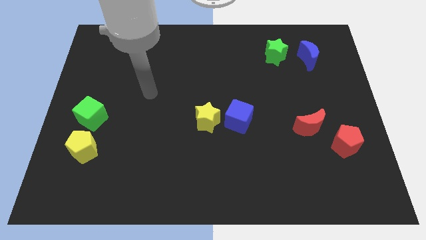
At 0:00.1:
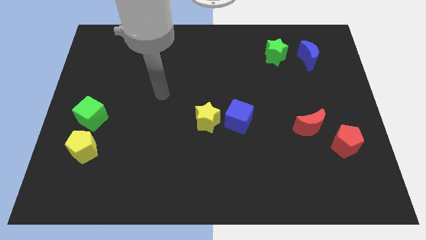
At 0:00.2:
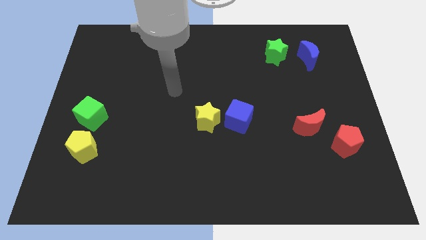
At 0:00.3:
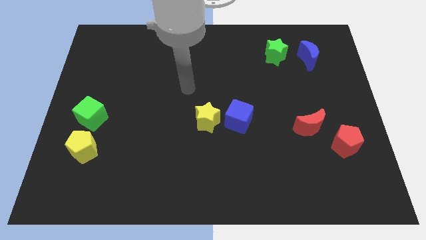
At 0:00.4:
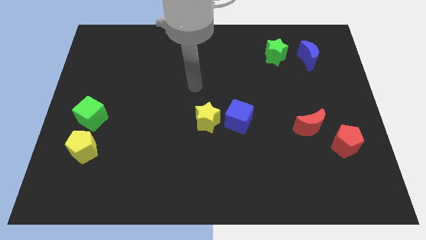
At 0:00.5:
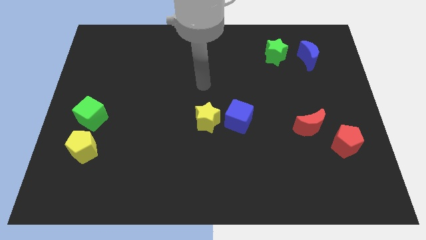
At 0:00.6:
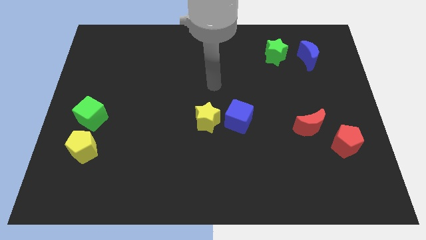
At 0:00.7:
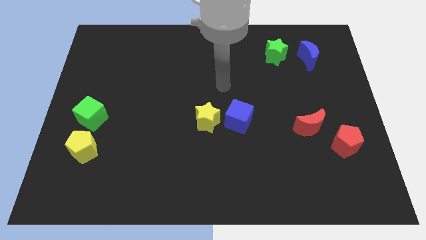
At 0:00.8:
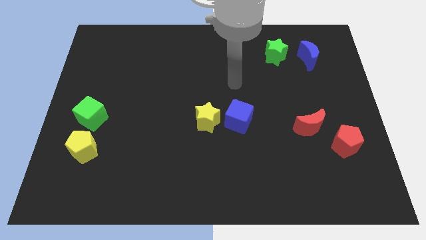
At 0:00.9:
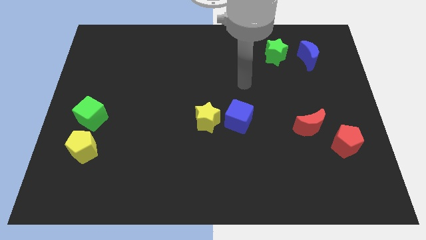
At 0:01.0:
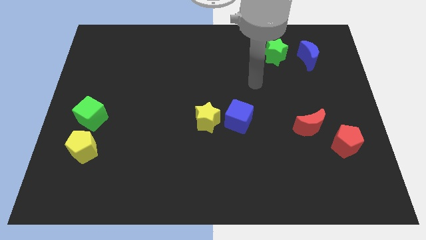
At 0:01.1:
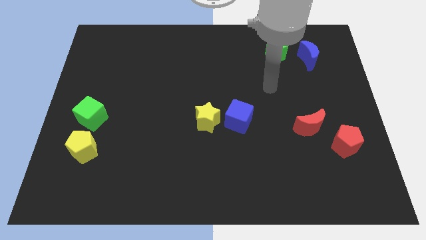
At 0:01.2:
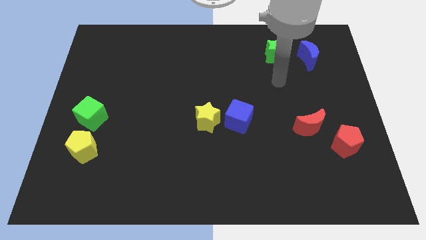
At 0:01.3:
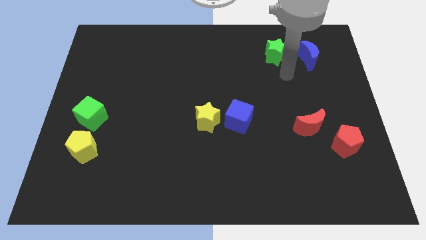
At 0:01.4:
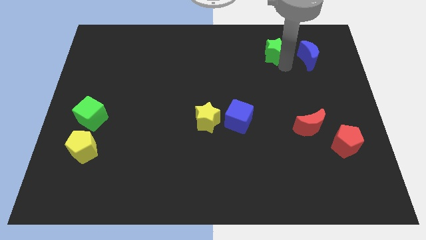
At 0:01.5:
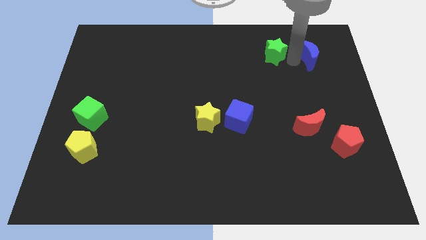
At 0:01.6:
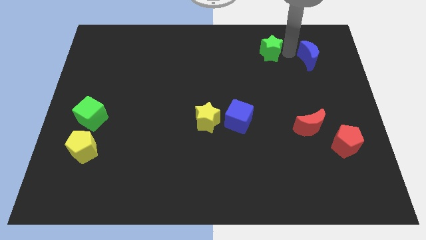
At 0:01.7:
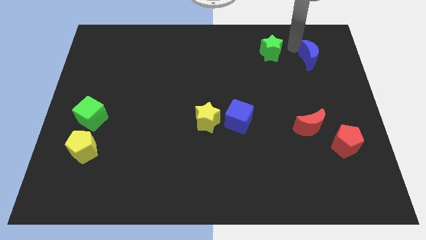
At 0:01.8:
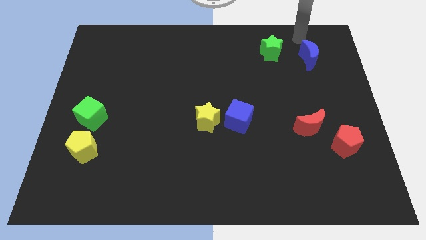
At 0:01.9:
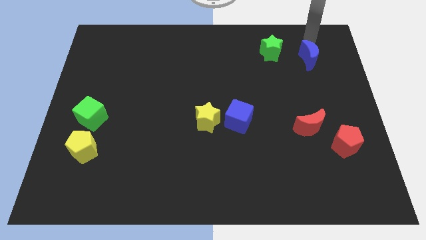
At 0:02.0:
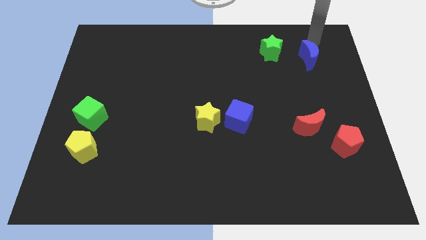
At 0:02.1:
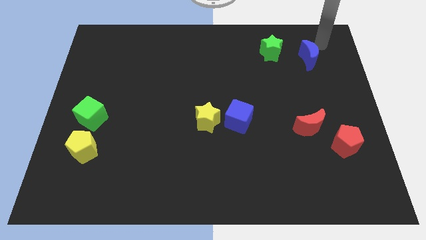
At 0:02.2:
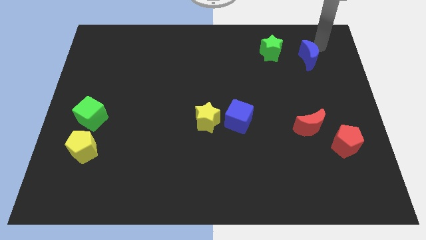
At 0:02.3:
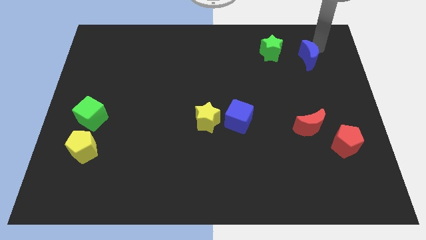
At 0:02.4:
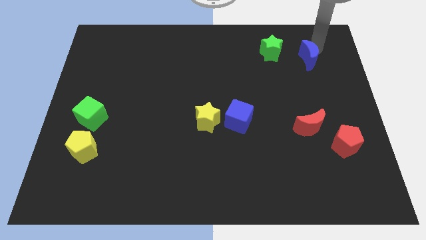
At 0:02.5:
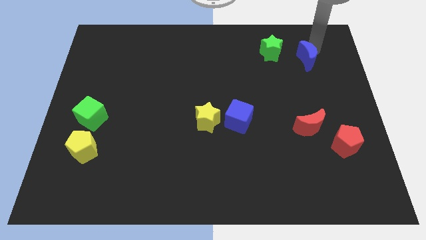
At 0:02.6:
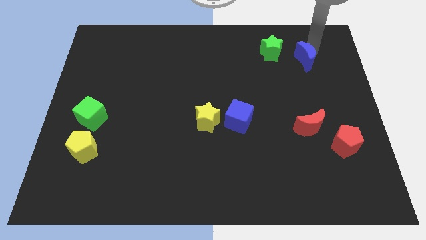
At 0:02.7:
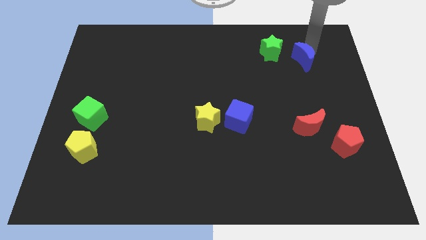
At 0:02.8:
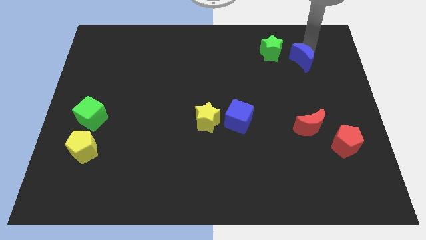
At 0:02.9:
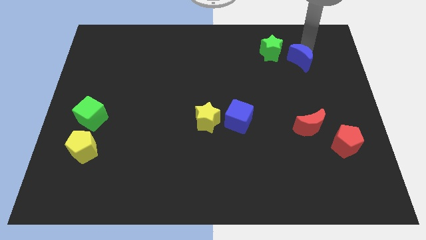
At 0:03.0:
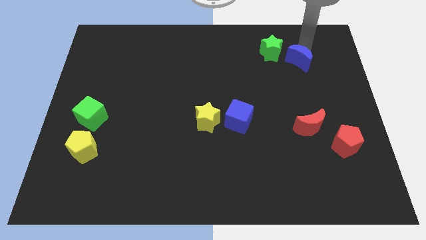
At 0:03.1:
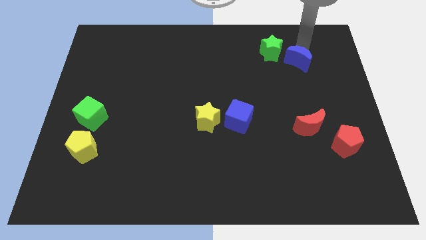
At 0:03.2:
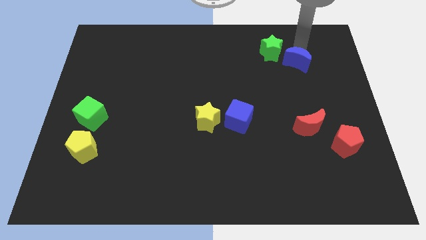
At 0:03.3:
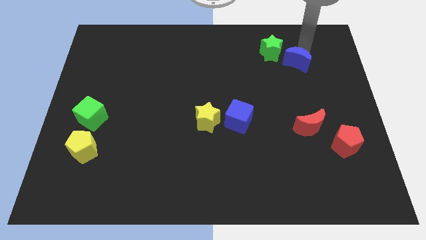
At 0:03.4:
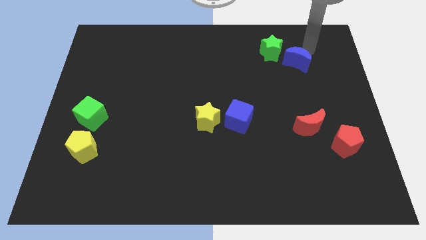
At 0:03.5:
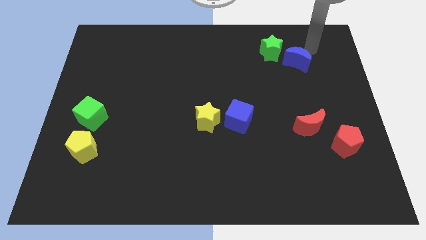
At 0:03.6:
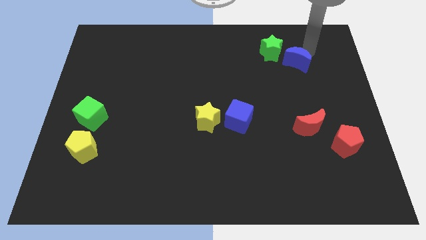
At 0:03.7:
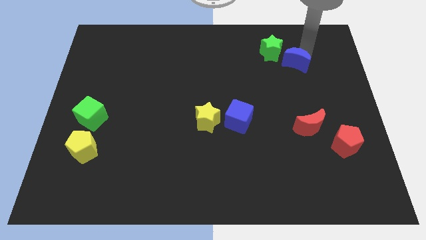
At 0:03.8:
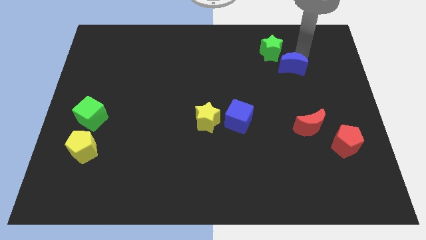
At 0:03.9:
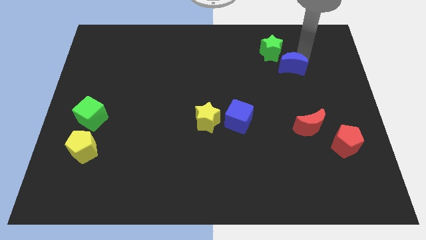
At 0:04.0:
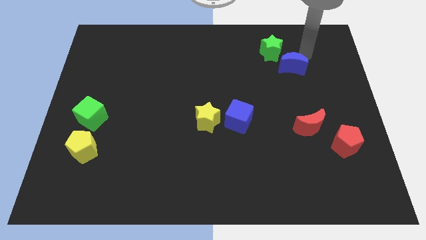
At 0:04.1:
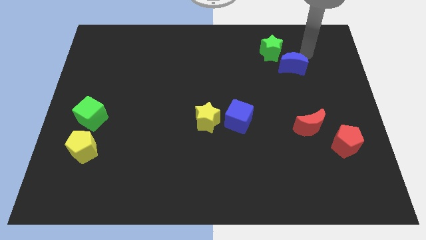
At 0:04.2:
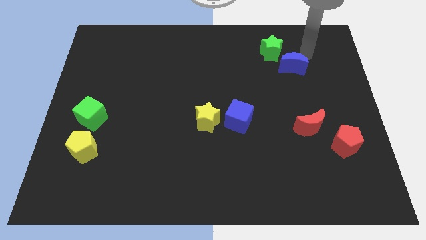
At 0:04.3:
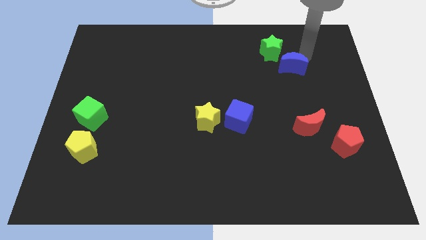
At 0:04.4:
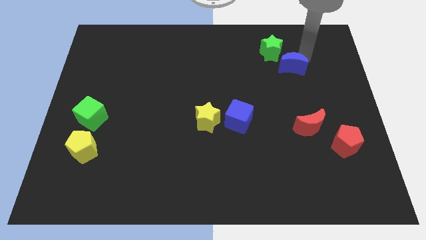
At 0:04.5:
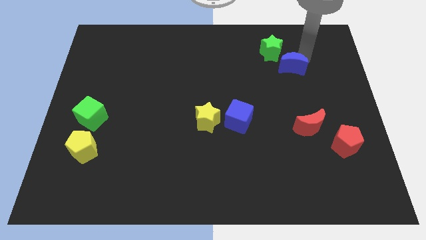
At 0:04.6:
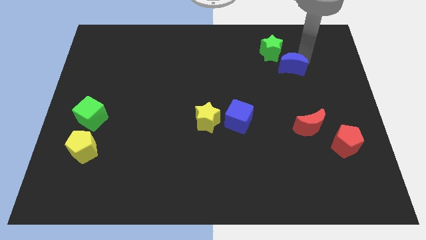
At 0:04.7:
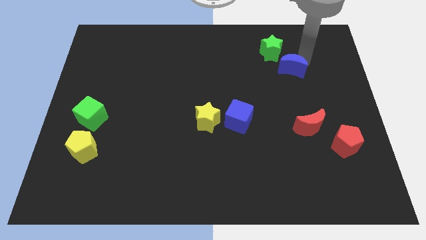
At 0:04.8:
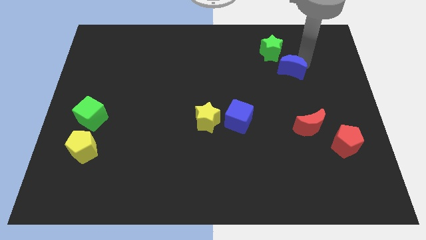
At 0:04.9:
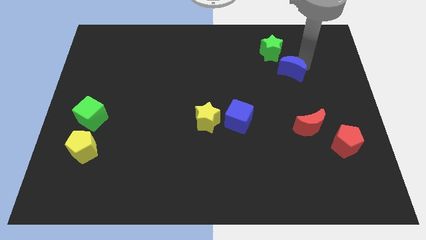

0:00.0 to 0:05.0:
push the blue moon somewhat downwards and then to the left

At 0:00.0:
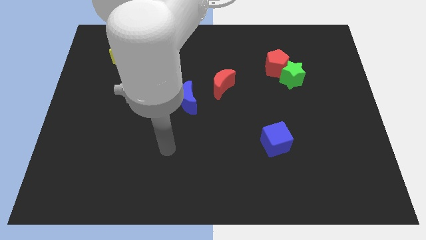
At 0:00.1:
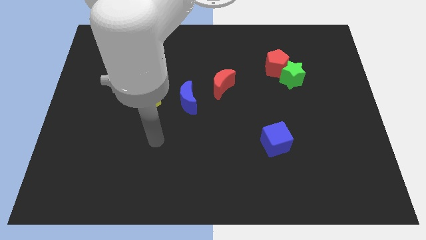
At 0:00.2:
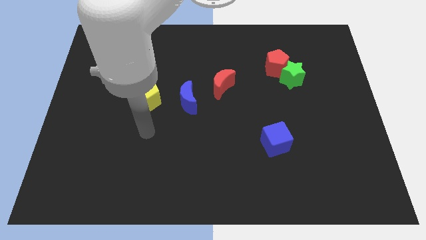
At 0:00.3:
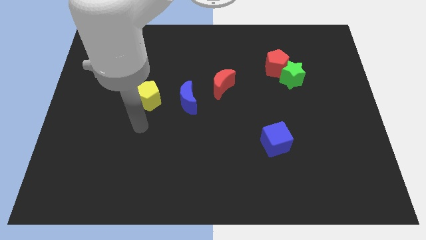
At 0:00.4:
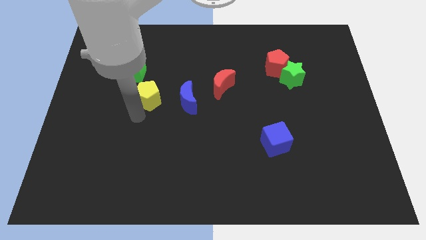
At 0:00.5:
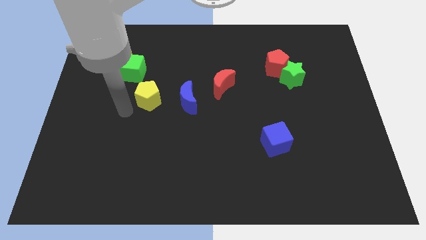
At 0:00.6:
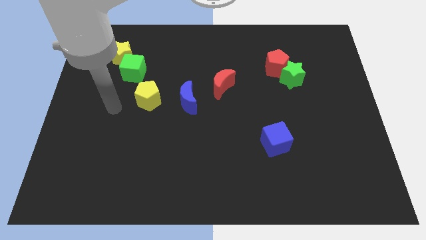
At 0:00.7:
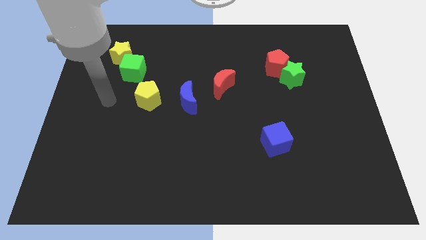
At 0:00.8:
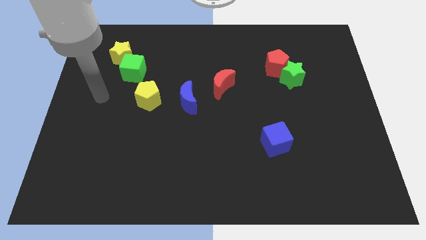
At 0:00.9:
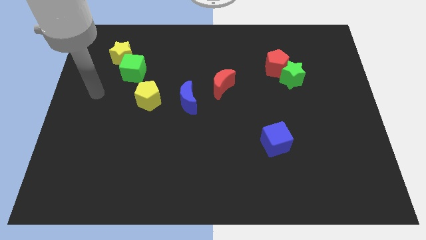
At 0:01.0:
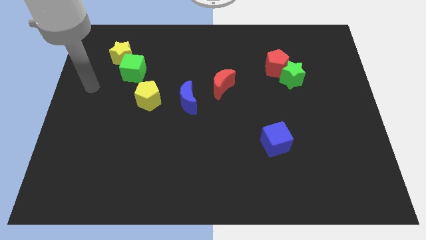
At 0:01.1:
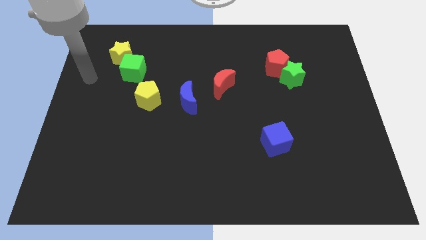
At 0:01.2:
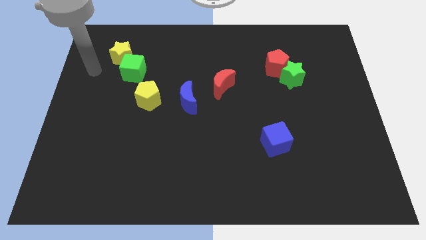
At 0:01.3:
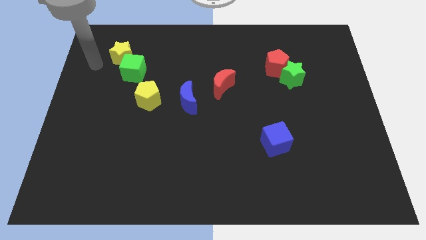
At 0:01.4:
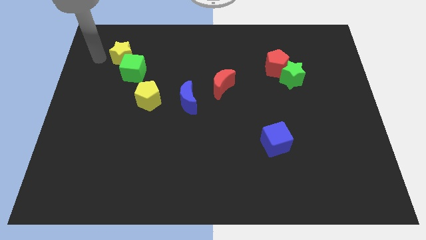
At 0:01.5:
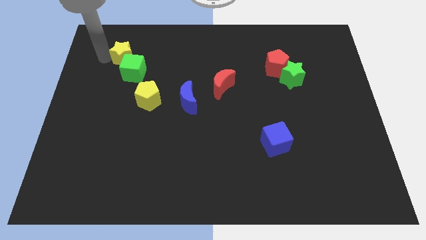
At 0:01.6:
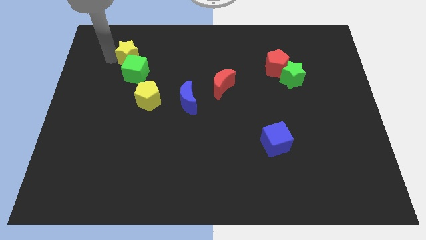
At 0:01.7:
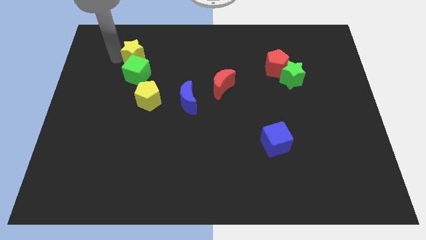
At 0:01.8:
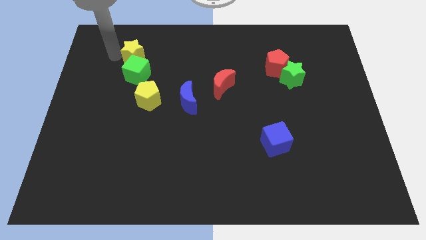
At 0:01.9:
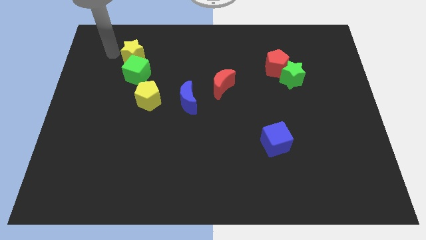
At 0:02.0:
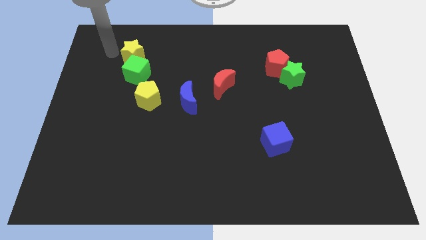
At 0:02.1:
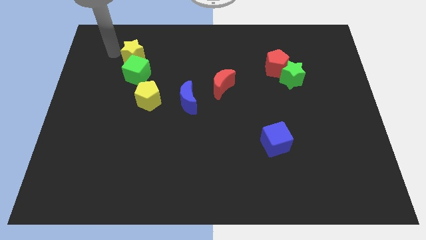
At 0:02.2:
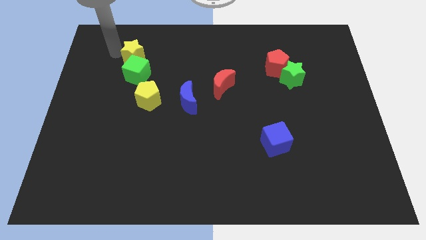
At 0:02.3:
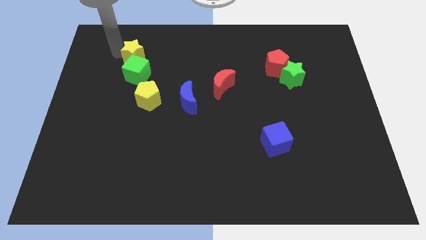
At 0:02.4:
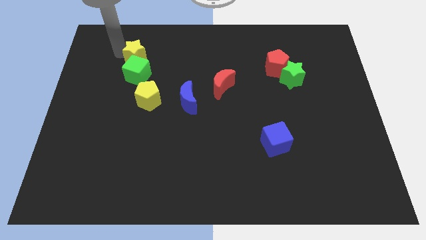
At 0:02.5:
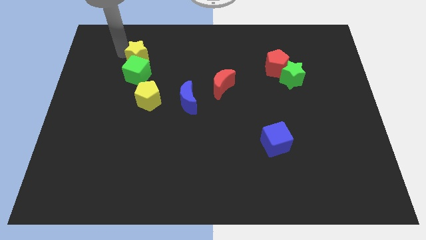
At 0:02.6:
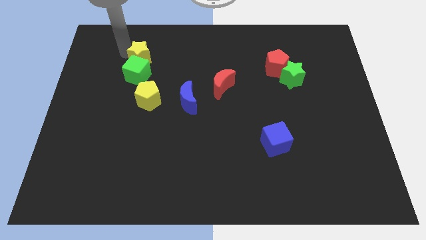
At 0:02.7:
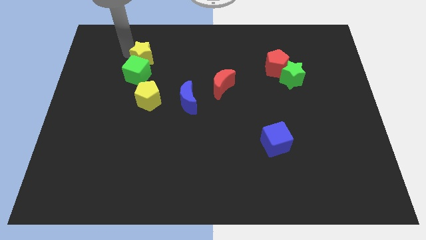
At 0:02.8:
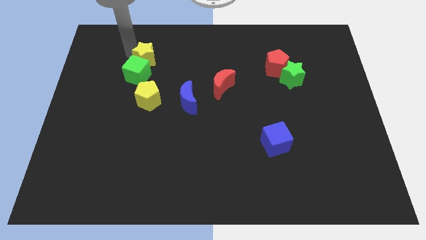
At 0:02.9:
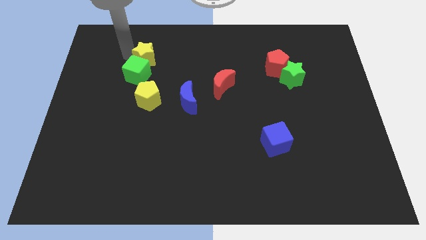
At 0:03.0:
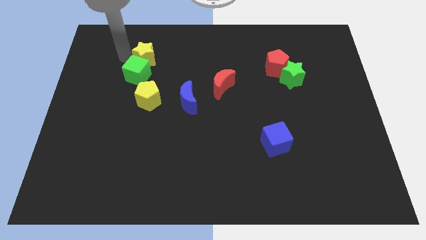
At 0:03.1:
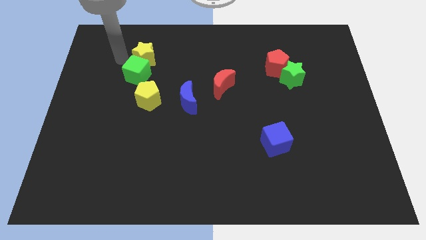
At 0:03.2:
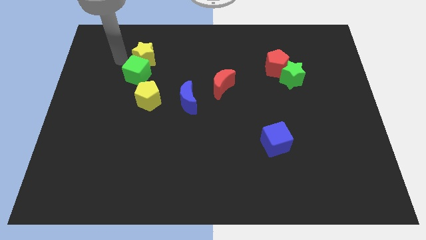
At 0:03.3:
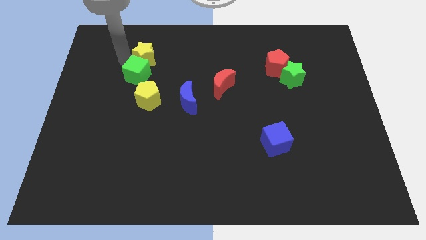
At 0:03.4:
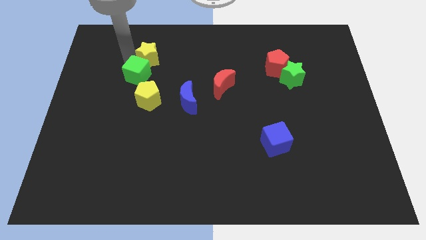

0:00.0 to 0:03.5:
slide the yellow star slightly right
